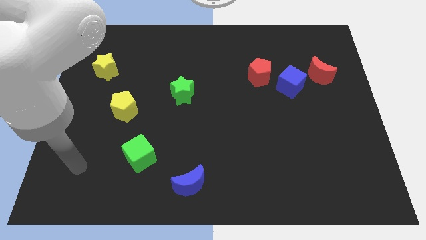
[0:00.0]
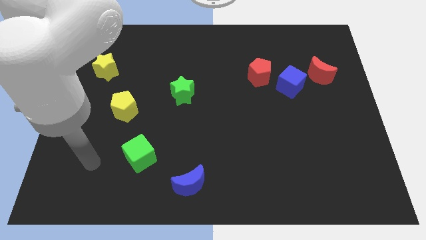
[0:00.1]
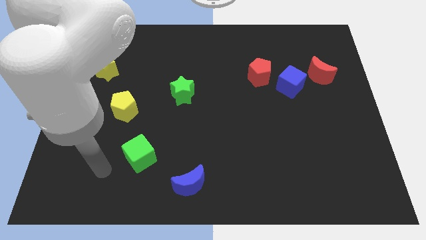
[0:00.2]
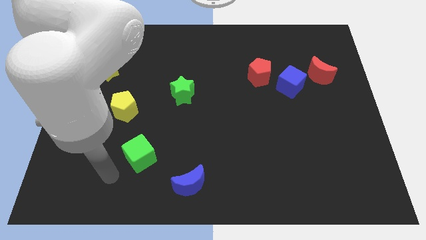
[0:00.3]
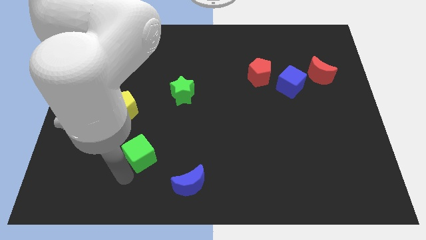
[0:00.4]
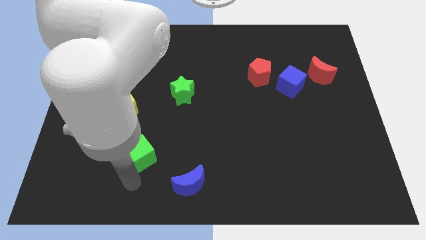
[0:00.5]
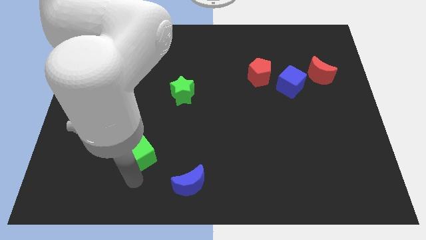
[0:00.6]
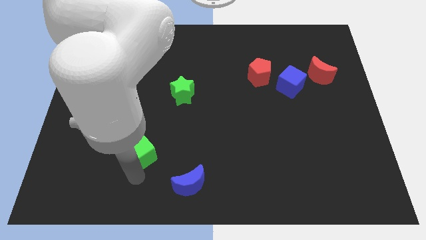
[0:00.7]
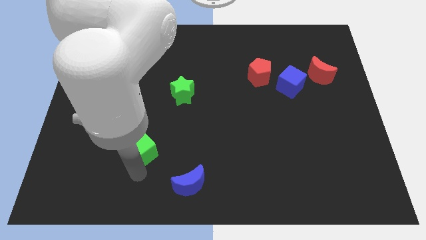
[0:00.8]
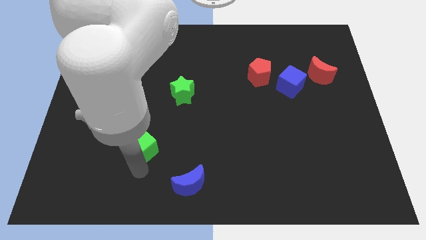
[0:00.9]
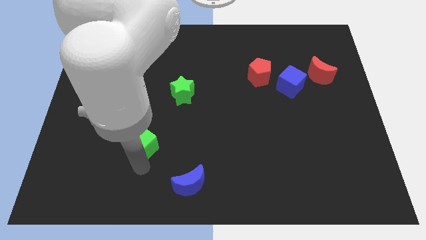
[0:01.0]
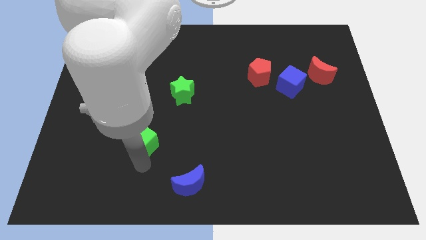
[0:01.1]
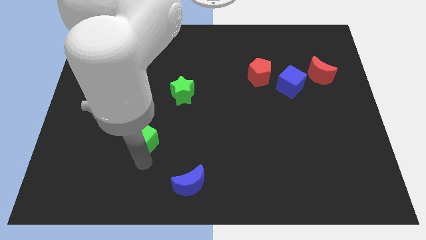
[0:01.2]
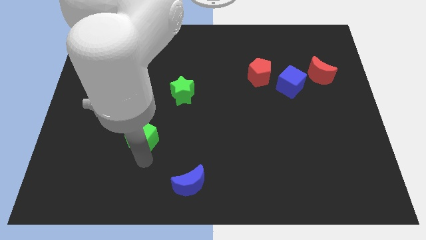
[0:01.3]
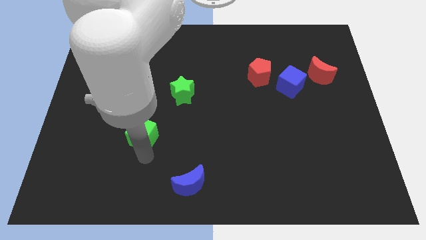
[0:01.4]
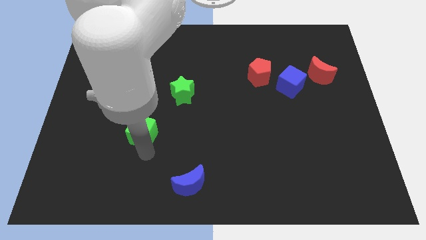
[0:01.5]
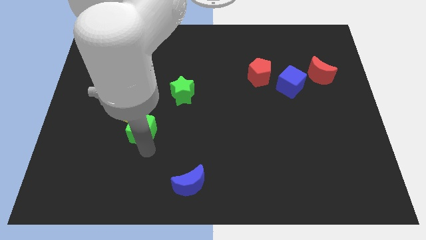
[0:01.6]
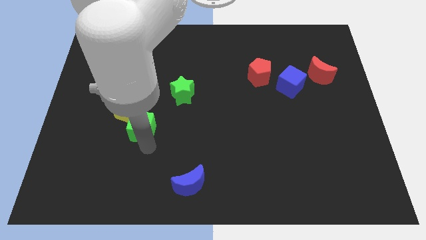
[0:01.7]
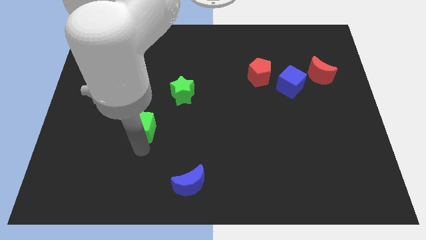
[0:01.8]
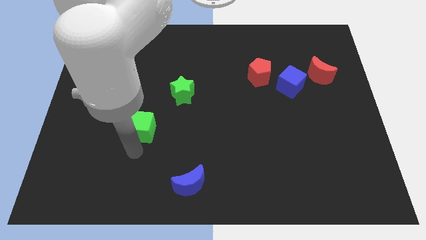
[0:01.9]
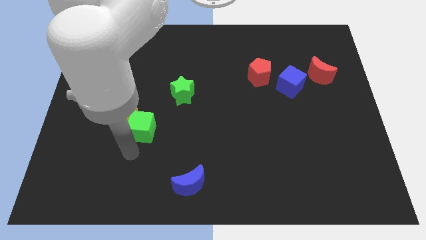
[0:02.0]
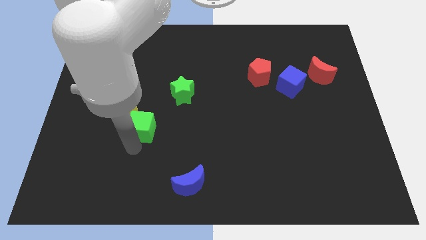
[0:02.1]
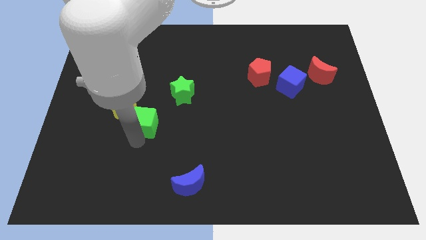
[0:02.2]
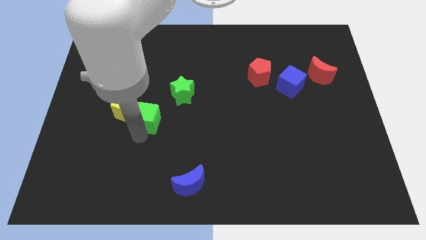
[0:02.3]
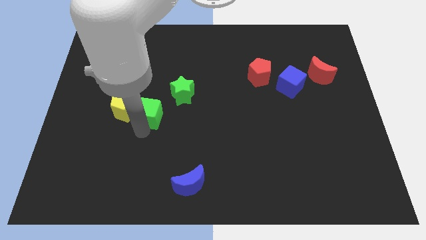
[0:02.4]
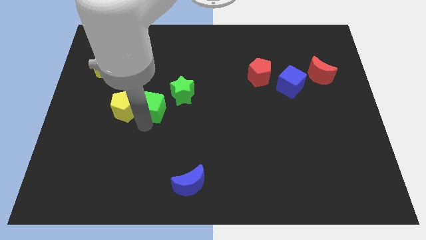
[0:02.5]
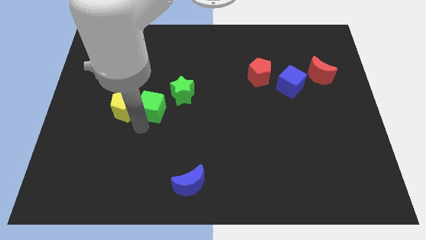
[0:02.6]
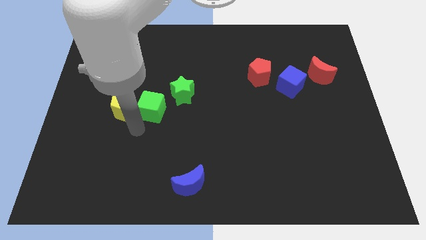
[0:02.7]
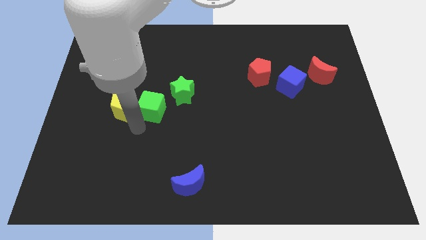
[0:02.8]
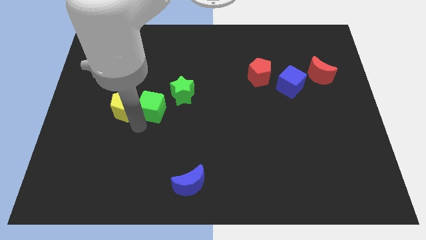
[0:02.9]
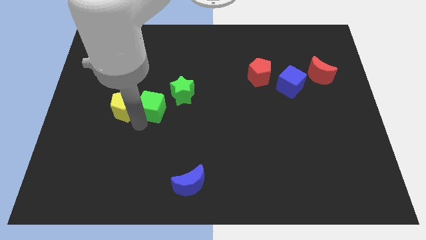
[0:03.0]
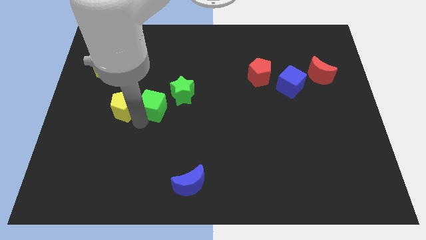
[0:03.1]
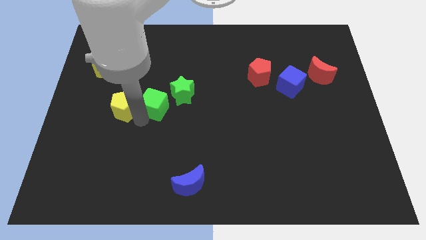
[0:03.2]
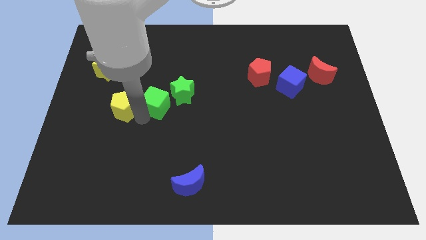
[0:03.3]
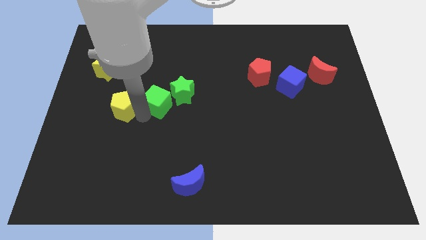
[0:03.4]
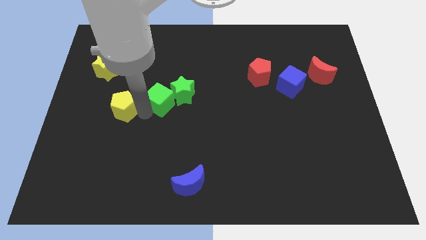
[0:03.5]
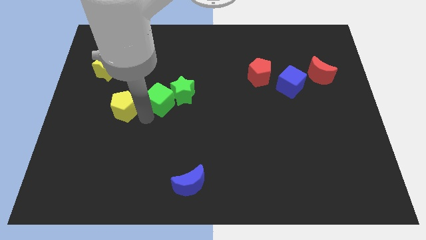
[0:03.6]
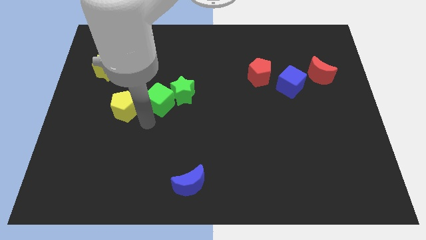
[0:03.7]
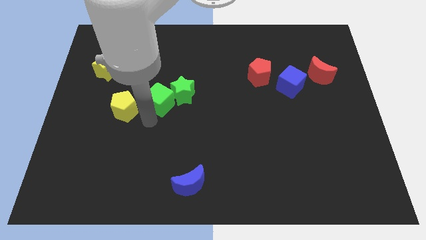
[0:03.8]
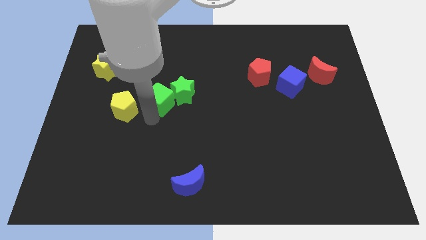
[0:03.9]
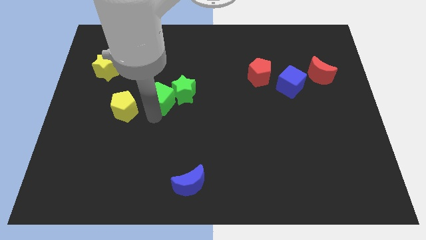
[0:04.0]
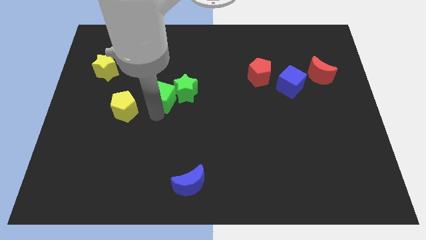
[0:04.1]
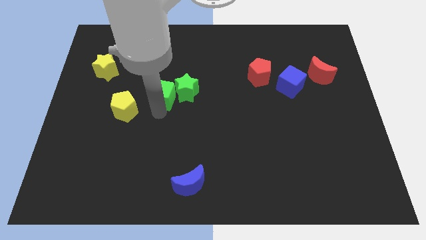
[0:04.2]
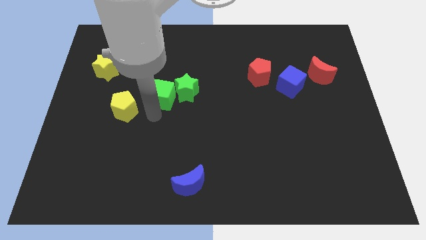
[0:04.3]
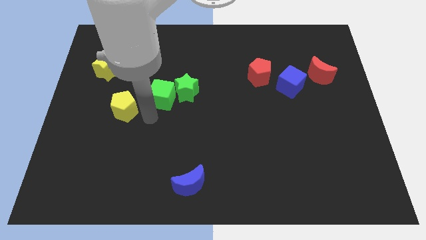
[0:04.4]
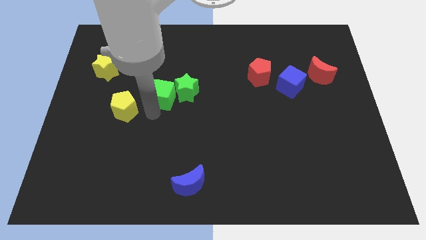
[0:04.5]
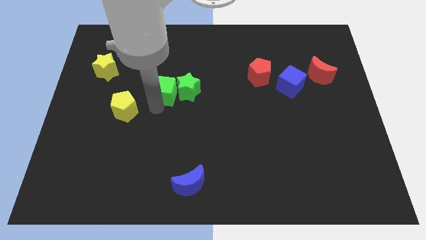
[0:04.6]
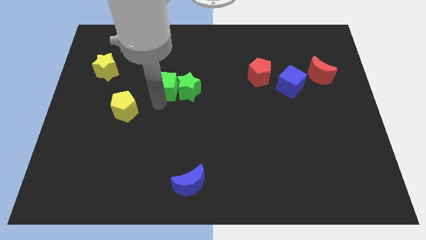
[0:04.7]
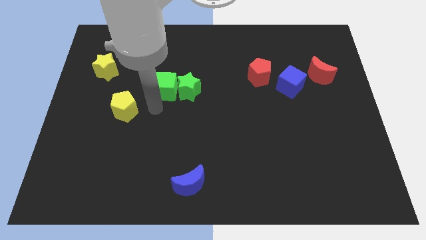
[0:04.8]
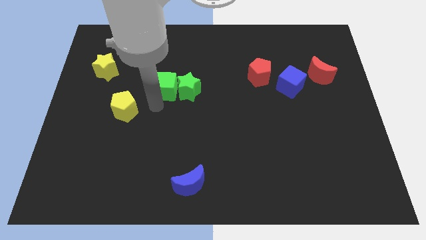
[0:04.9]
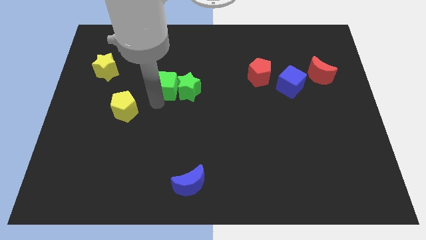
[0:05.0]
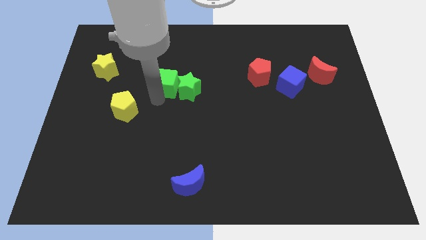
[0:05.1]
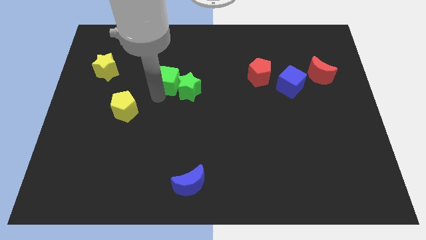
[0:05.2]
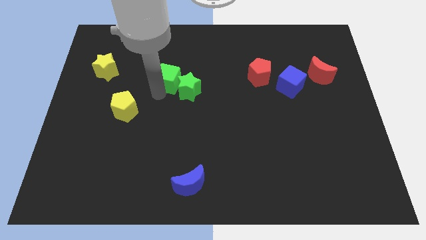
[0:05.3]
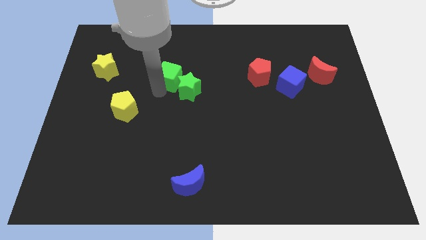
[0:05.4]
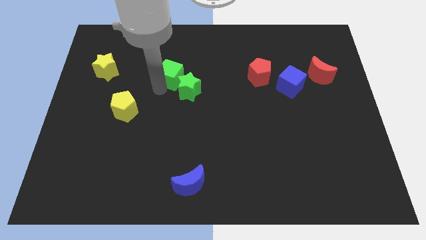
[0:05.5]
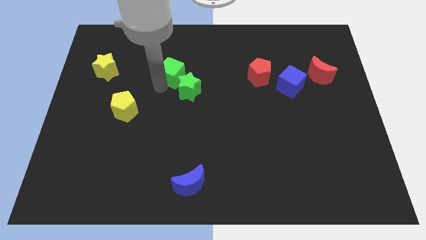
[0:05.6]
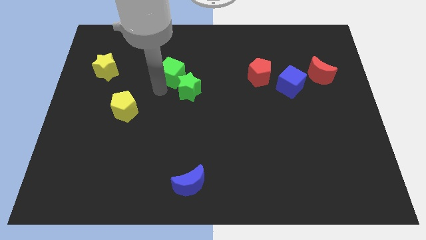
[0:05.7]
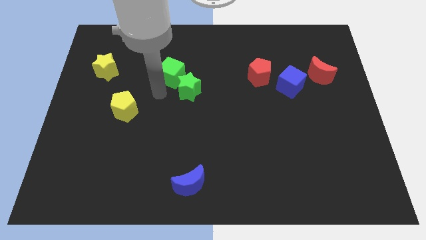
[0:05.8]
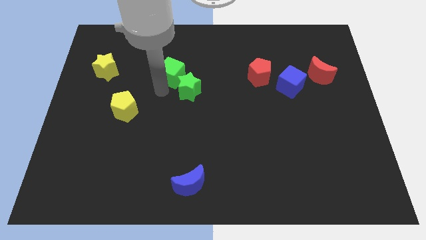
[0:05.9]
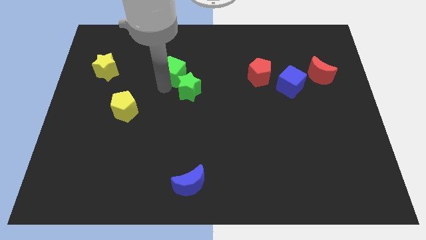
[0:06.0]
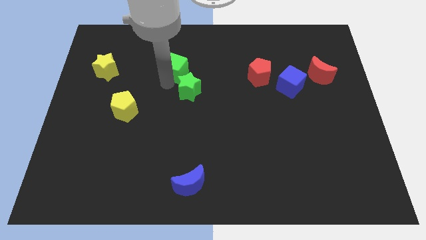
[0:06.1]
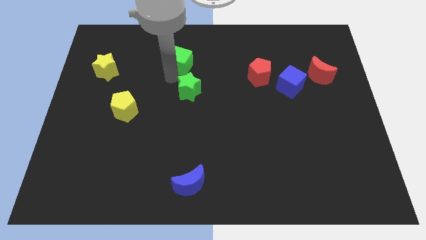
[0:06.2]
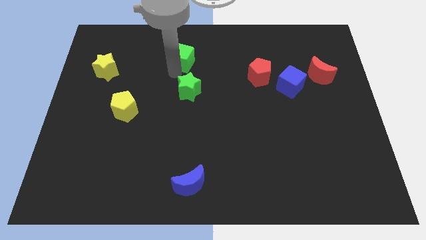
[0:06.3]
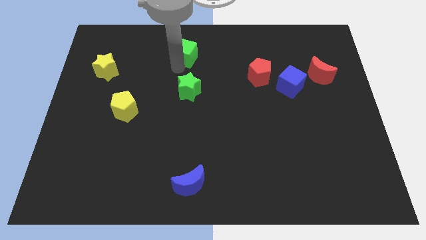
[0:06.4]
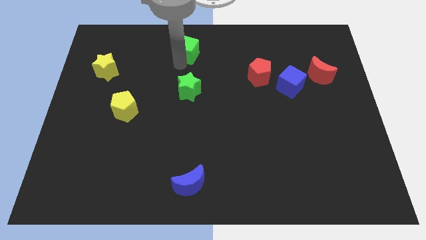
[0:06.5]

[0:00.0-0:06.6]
push the green cube to the towards your base
